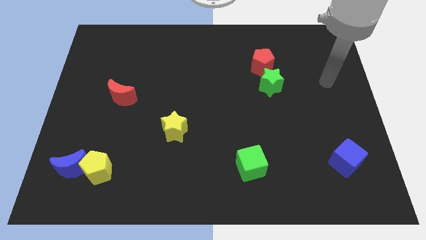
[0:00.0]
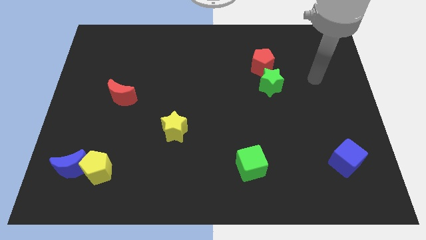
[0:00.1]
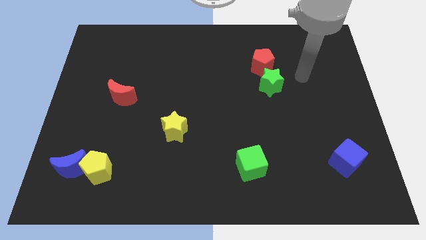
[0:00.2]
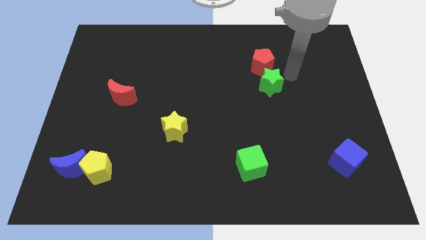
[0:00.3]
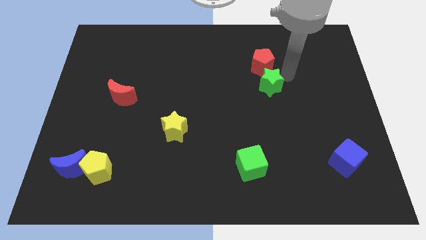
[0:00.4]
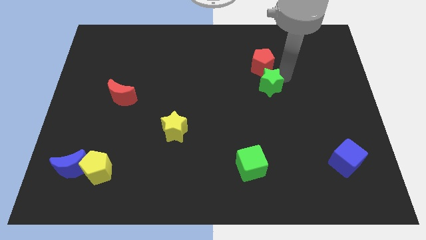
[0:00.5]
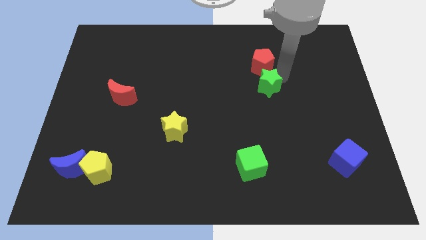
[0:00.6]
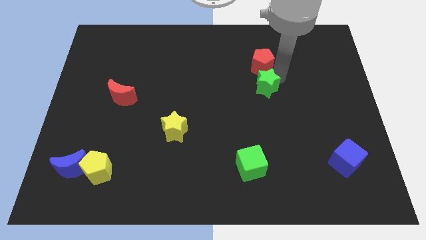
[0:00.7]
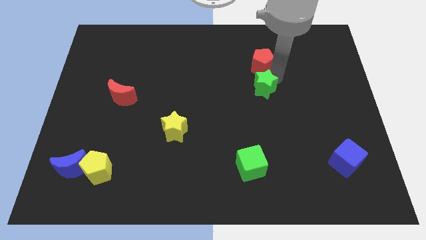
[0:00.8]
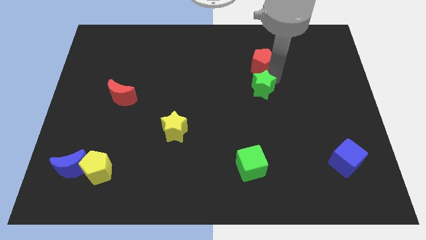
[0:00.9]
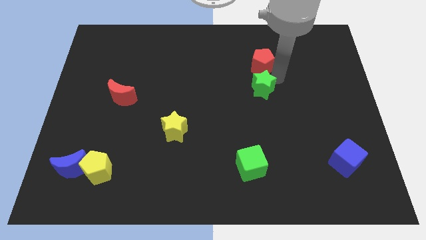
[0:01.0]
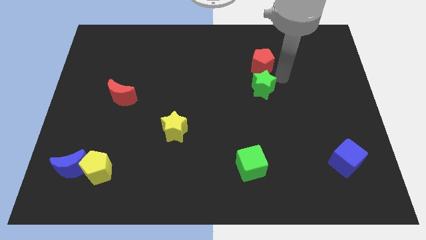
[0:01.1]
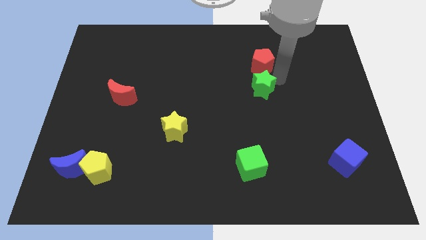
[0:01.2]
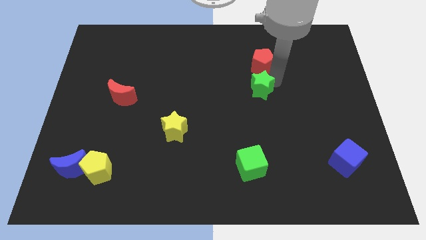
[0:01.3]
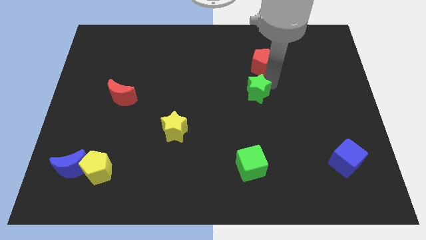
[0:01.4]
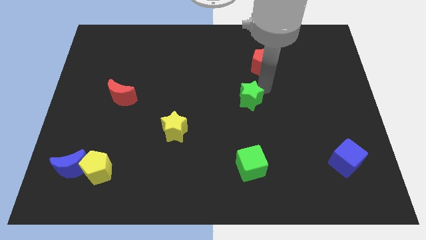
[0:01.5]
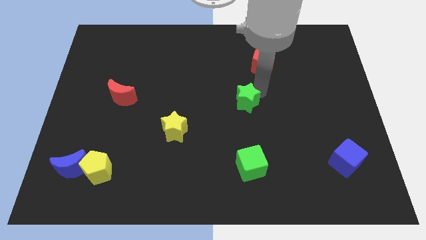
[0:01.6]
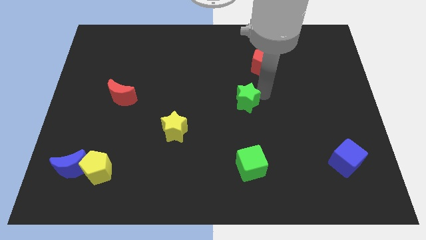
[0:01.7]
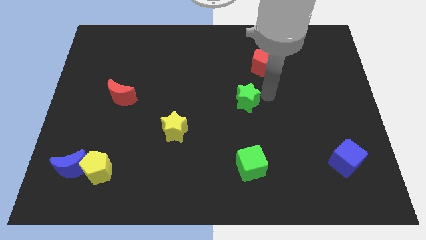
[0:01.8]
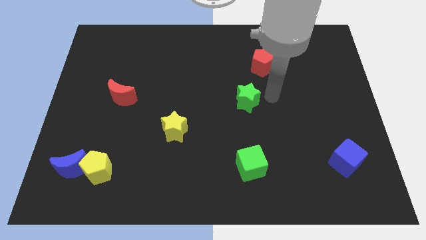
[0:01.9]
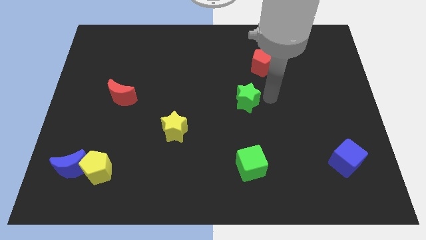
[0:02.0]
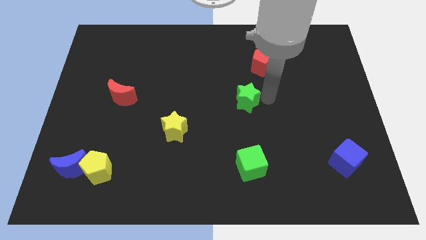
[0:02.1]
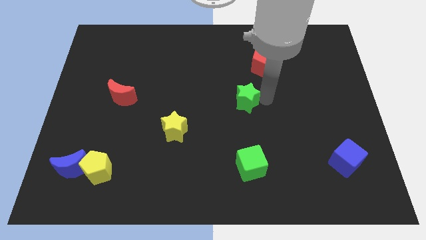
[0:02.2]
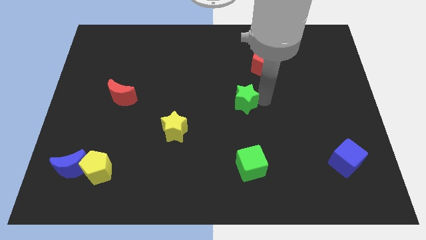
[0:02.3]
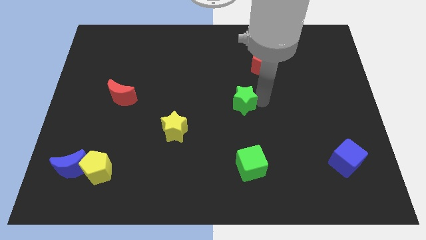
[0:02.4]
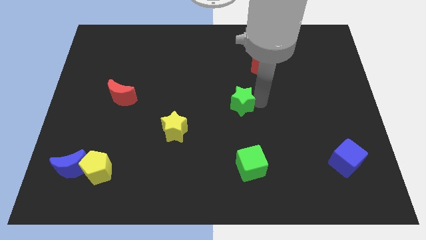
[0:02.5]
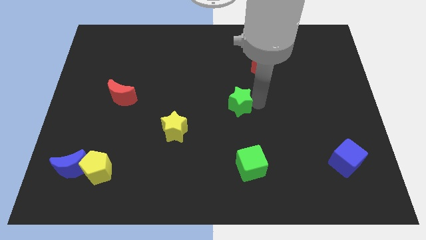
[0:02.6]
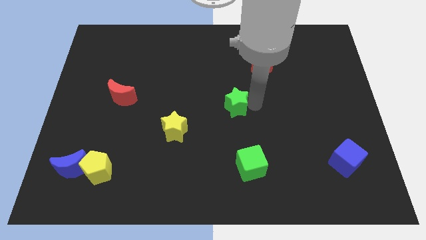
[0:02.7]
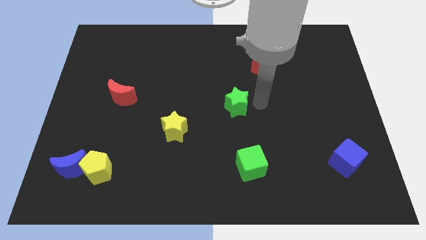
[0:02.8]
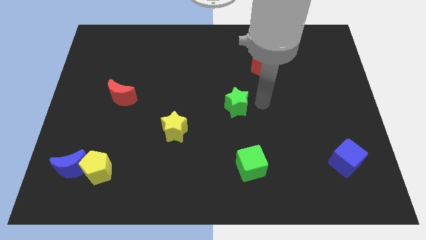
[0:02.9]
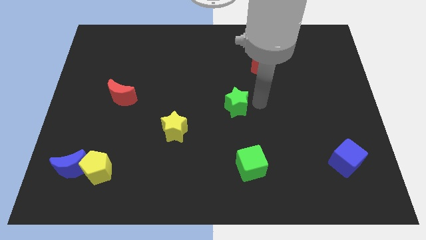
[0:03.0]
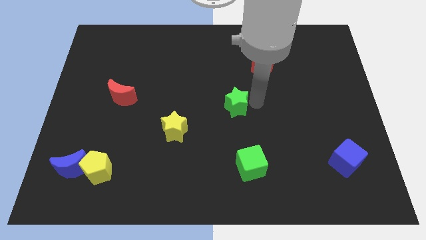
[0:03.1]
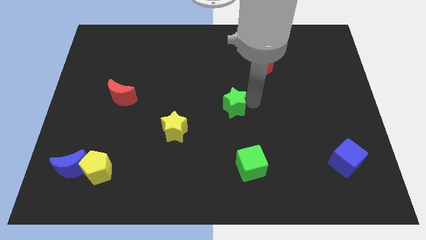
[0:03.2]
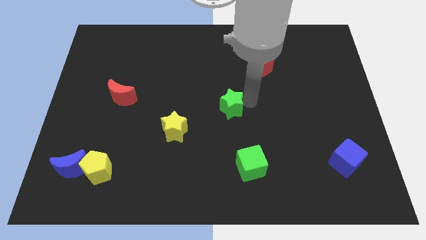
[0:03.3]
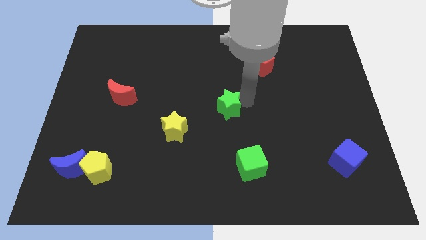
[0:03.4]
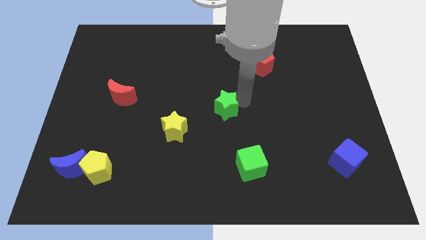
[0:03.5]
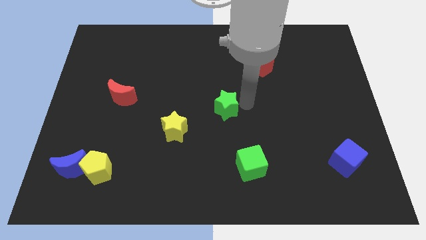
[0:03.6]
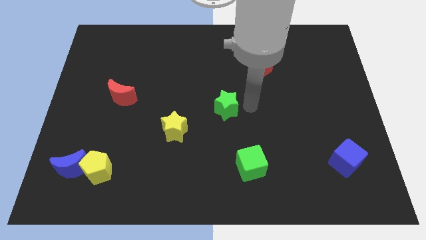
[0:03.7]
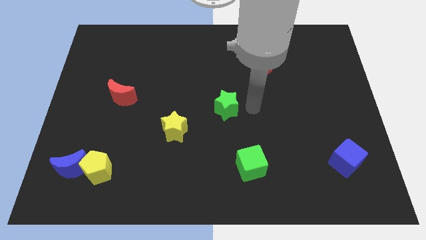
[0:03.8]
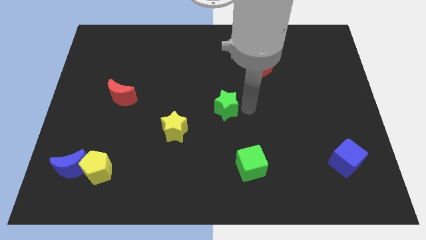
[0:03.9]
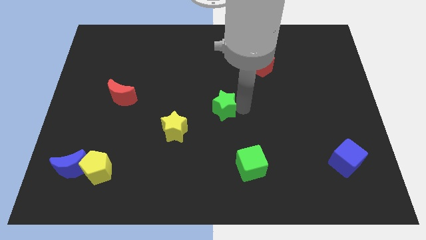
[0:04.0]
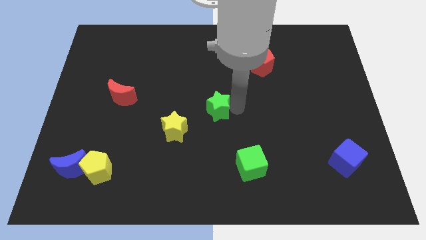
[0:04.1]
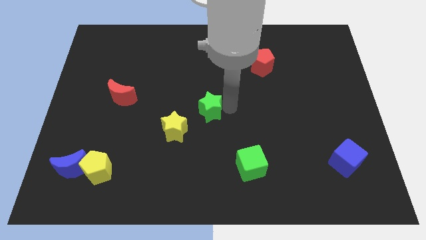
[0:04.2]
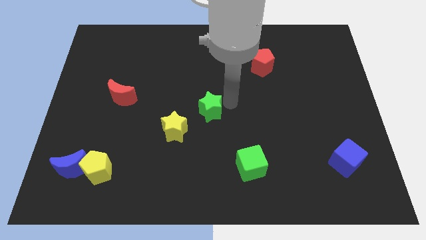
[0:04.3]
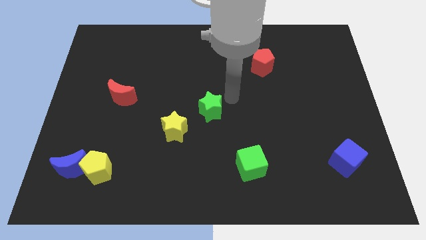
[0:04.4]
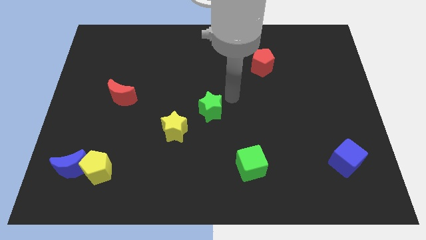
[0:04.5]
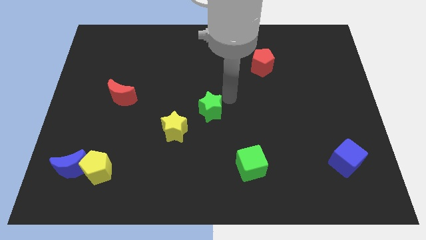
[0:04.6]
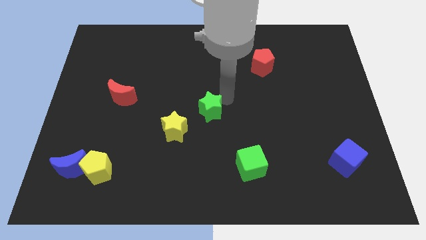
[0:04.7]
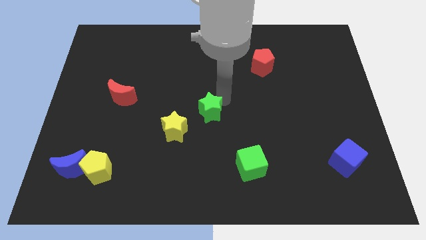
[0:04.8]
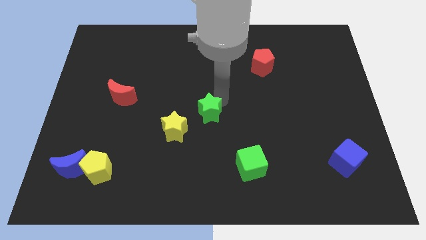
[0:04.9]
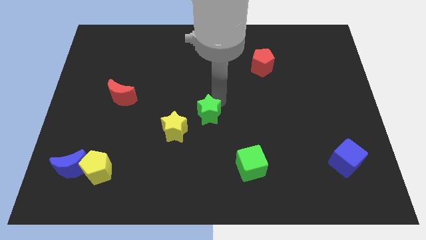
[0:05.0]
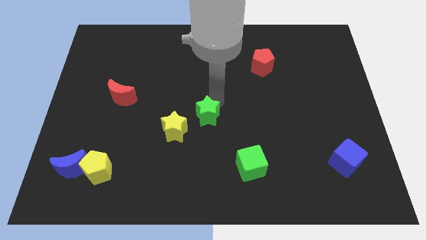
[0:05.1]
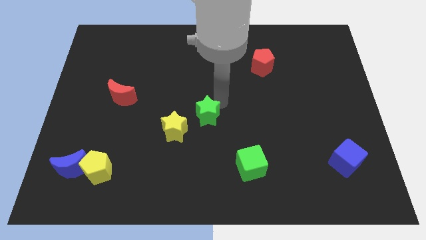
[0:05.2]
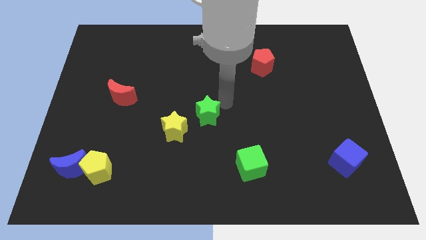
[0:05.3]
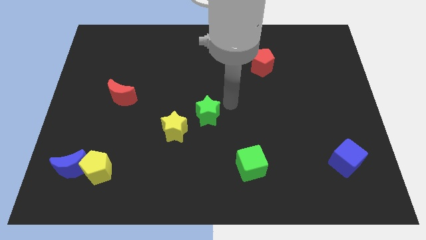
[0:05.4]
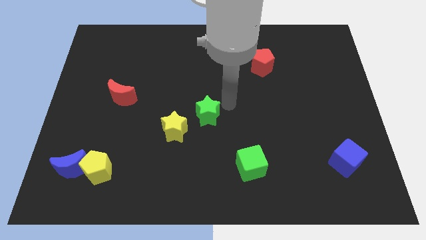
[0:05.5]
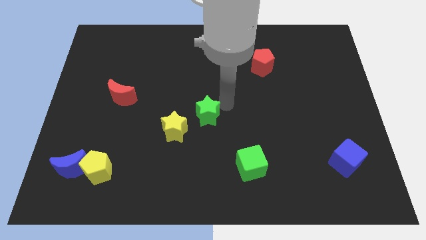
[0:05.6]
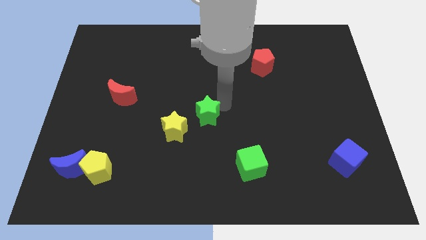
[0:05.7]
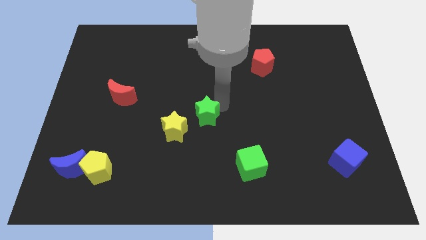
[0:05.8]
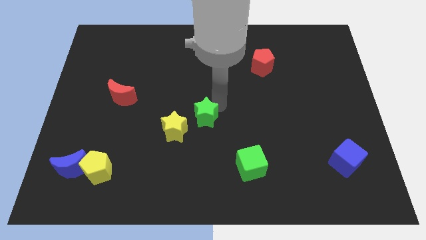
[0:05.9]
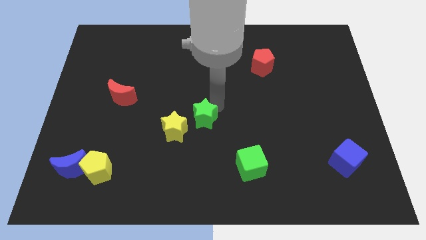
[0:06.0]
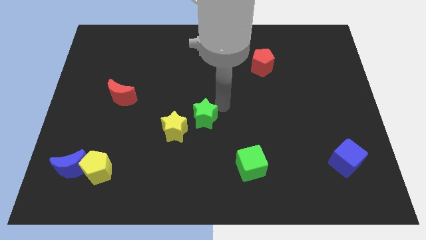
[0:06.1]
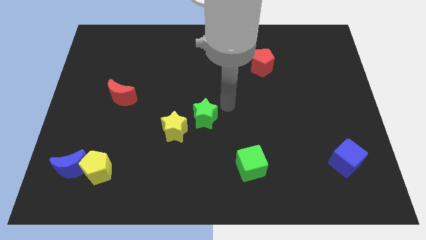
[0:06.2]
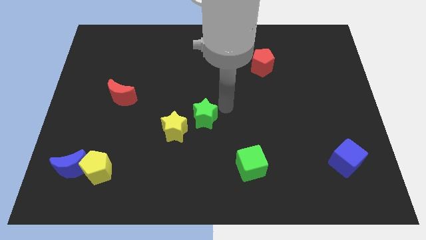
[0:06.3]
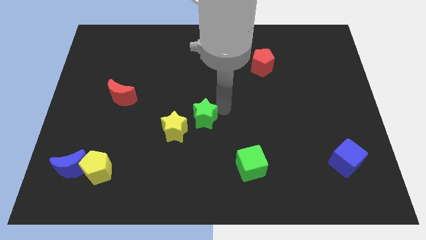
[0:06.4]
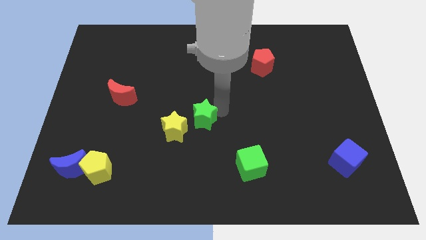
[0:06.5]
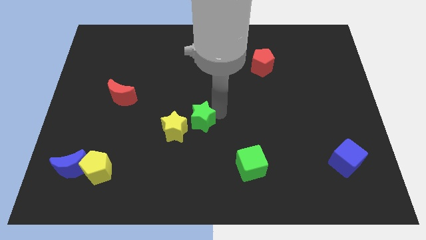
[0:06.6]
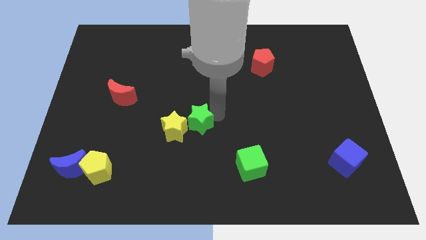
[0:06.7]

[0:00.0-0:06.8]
put the green star to the yellow star

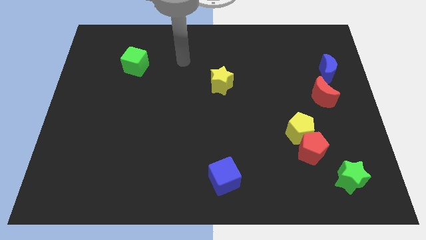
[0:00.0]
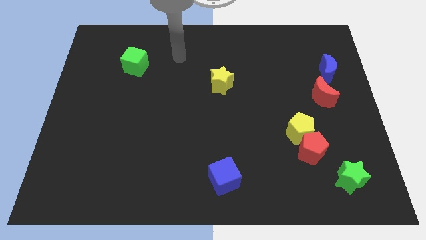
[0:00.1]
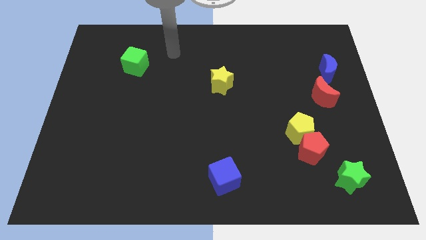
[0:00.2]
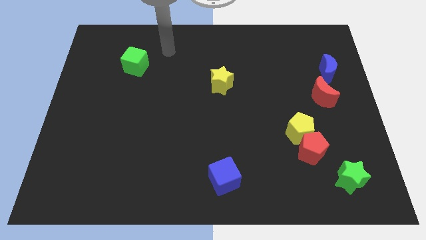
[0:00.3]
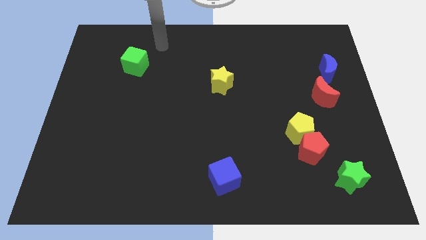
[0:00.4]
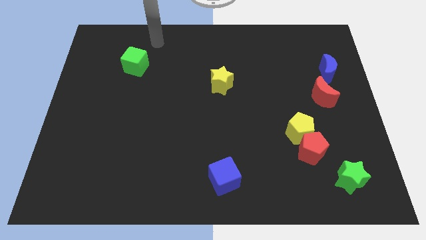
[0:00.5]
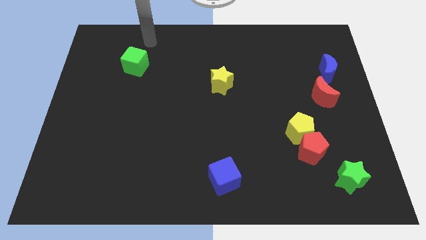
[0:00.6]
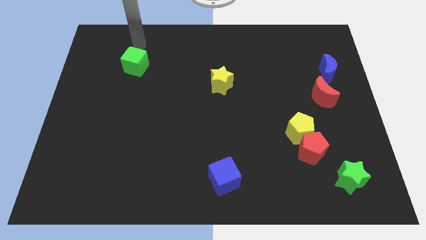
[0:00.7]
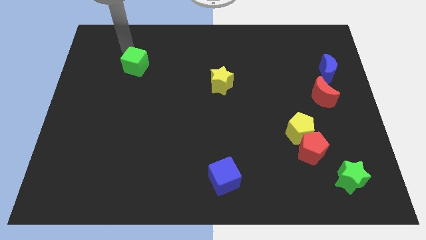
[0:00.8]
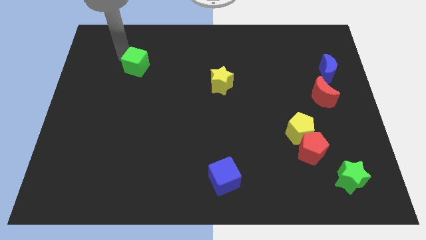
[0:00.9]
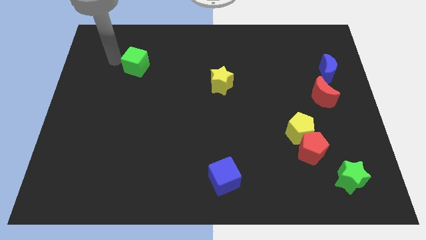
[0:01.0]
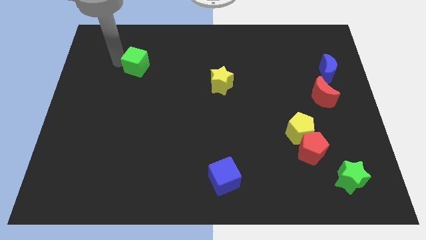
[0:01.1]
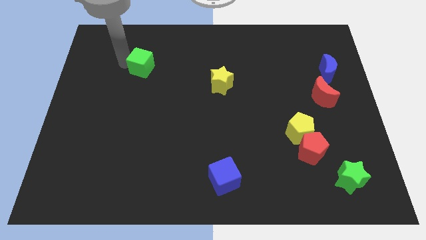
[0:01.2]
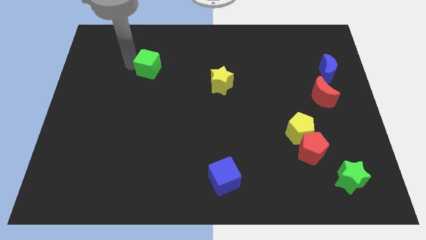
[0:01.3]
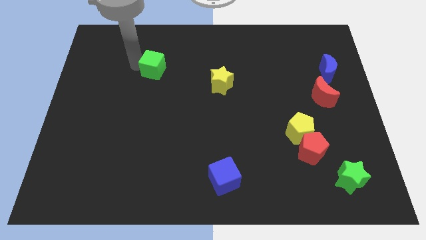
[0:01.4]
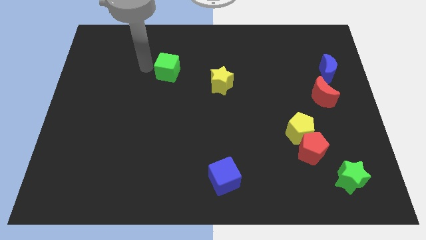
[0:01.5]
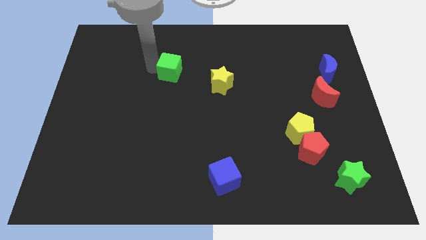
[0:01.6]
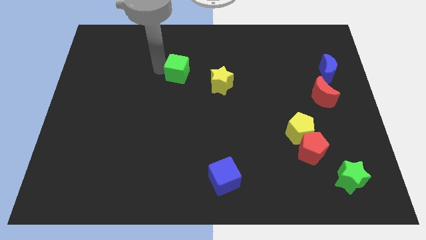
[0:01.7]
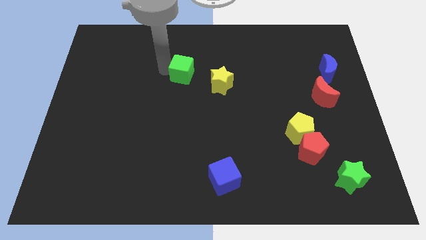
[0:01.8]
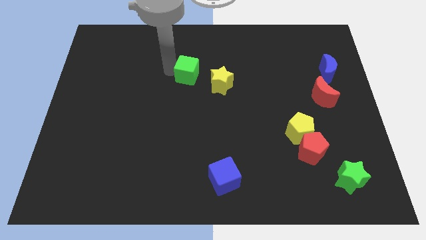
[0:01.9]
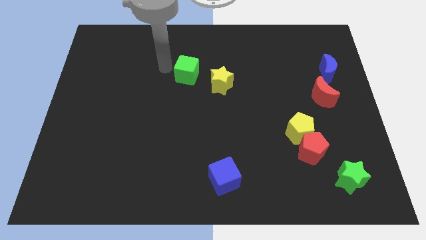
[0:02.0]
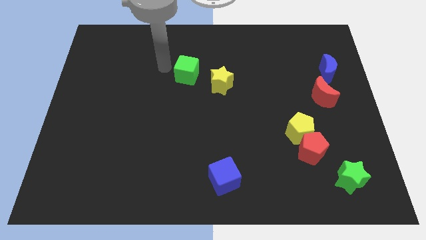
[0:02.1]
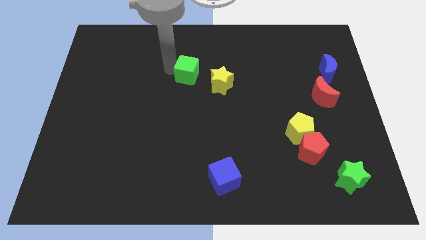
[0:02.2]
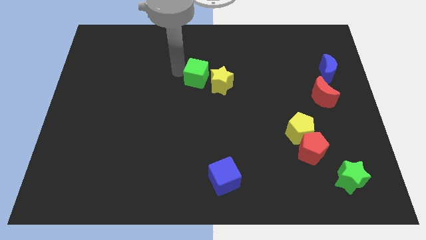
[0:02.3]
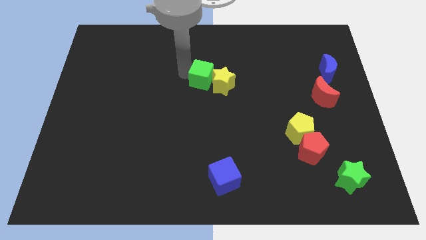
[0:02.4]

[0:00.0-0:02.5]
put the green cube close to the yellow star
